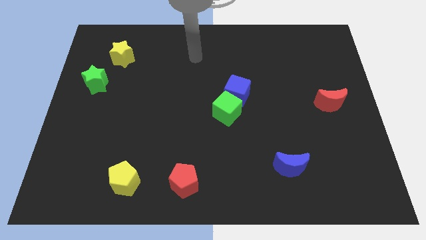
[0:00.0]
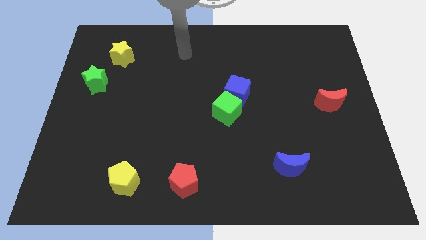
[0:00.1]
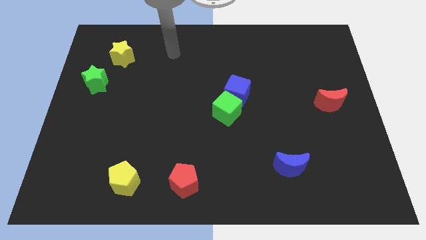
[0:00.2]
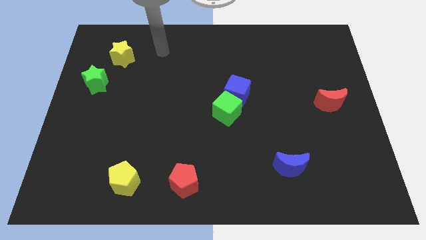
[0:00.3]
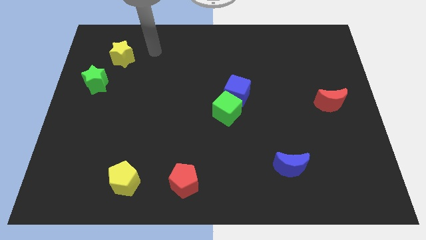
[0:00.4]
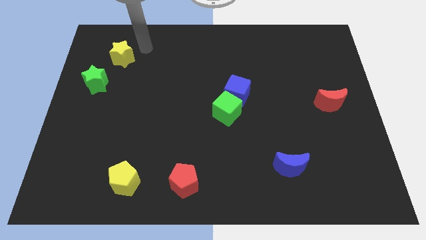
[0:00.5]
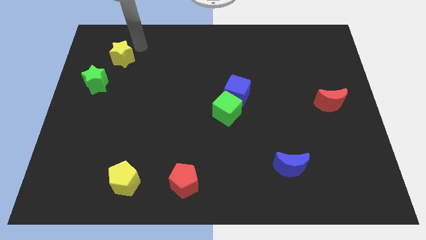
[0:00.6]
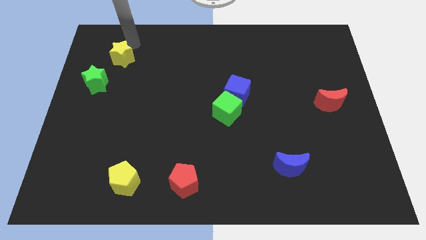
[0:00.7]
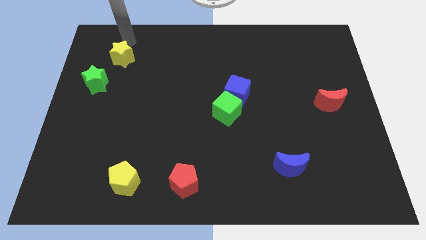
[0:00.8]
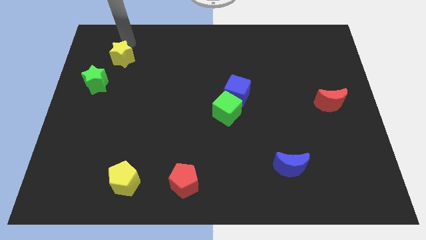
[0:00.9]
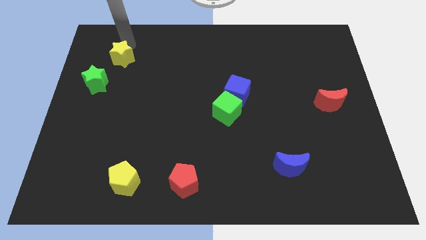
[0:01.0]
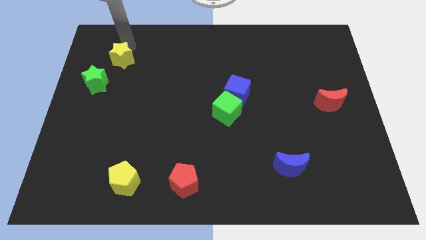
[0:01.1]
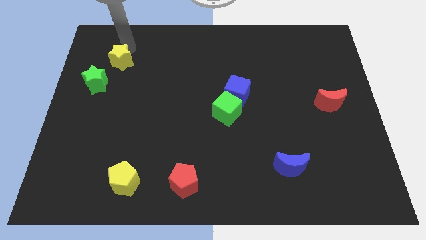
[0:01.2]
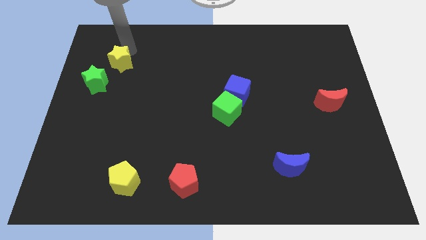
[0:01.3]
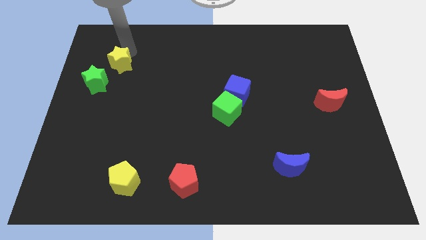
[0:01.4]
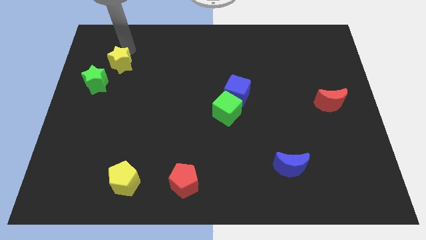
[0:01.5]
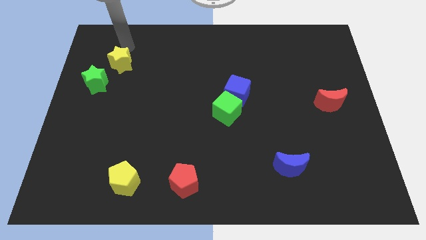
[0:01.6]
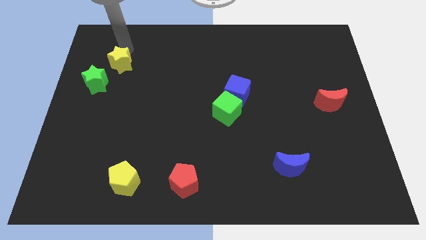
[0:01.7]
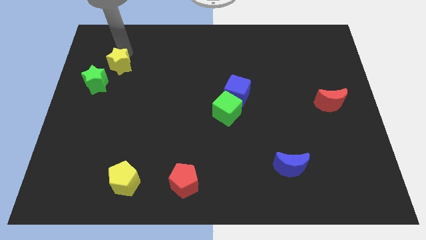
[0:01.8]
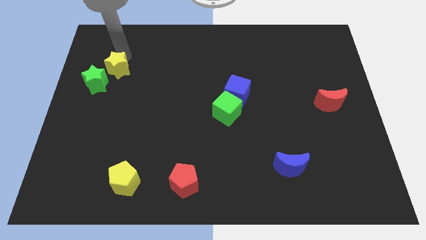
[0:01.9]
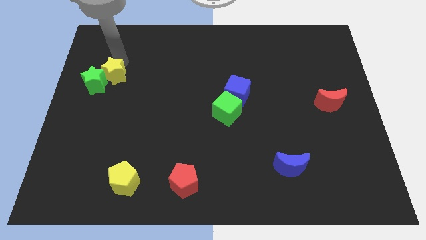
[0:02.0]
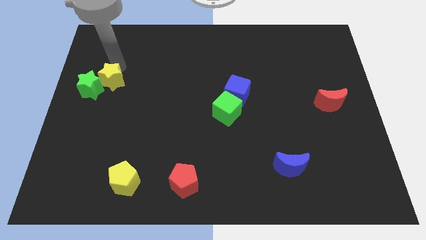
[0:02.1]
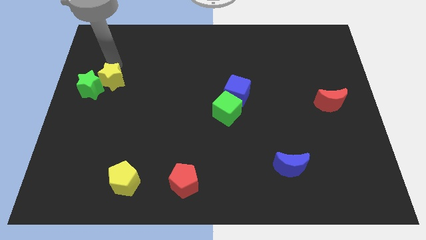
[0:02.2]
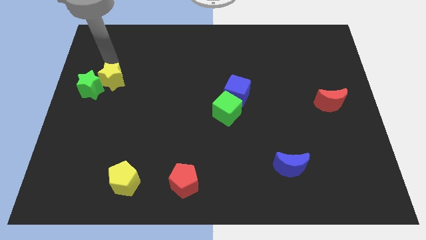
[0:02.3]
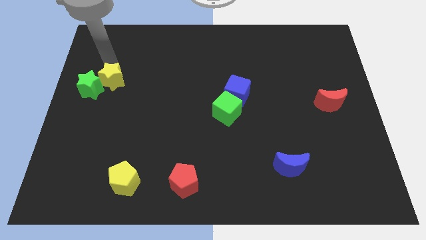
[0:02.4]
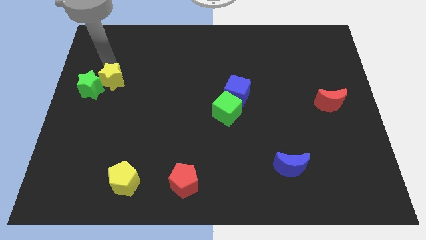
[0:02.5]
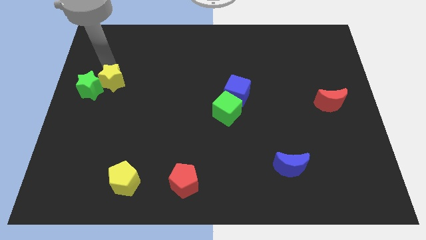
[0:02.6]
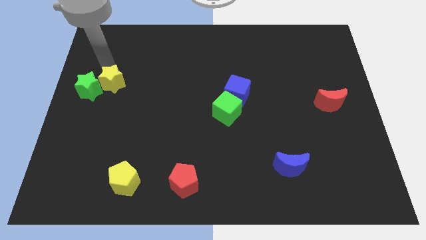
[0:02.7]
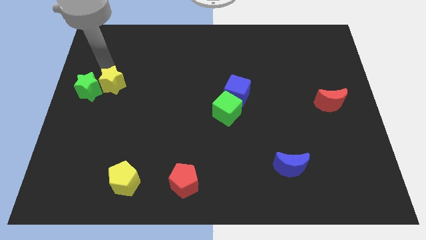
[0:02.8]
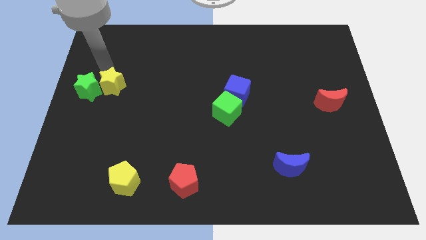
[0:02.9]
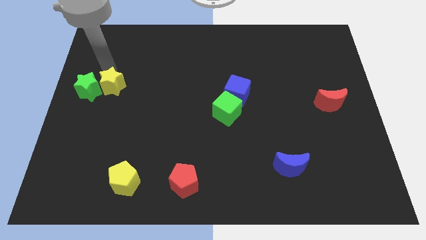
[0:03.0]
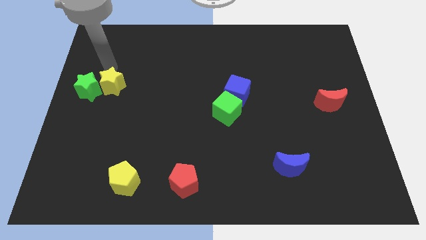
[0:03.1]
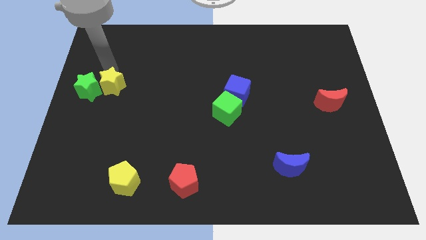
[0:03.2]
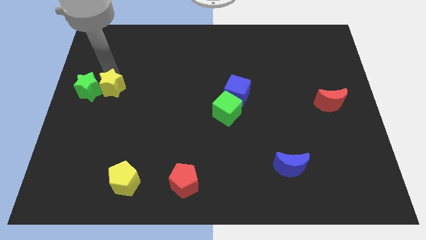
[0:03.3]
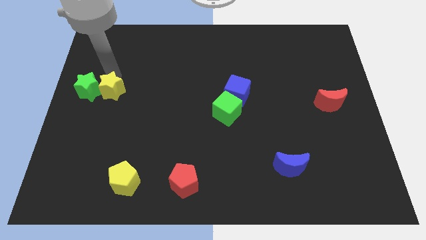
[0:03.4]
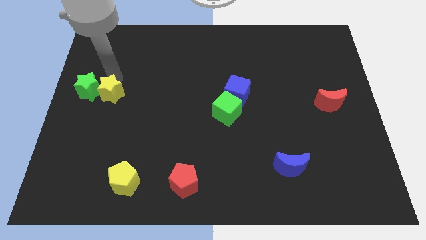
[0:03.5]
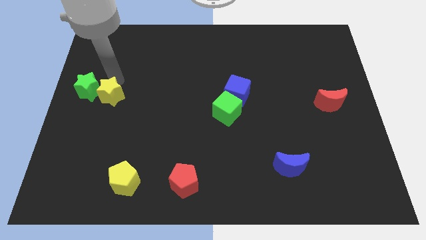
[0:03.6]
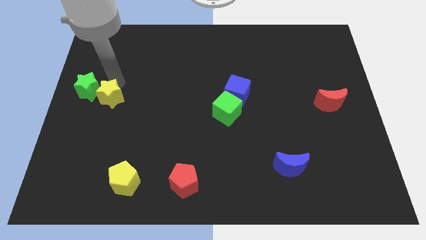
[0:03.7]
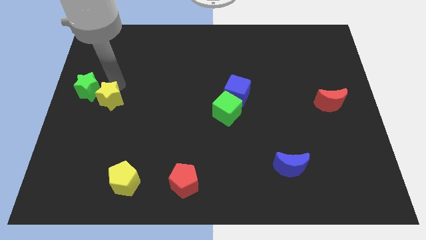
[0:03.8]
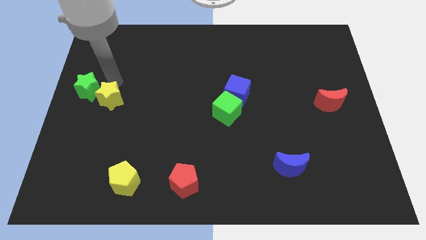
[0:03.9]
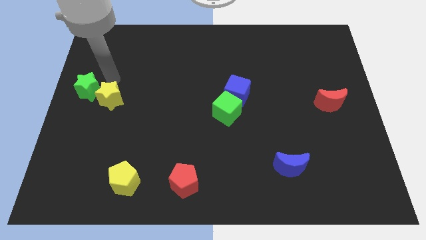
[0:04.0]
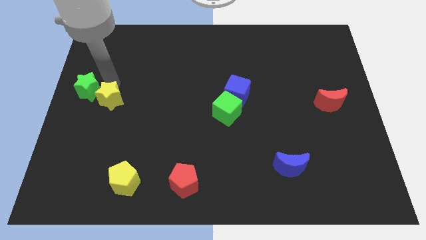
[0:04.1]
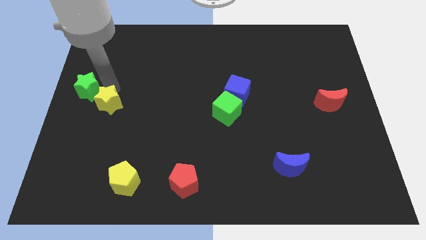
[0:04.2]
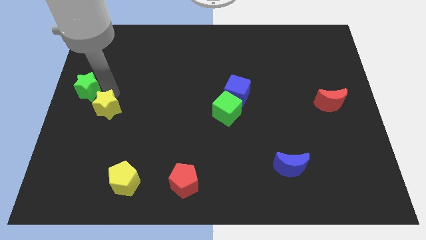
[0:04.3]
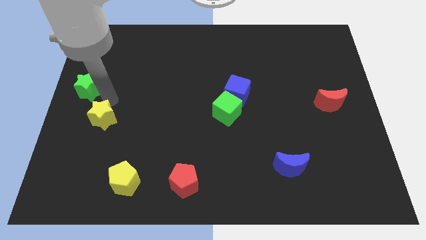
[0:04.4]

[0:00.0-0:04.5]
slide the yellow star downwards

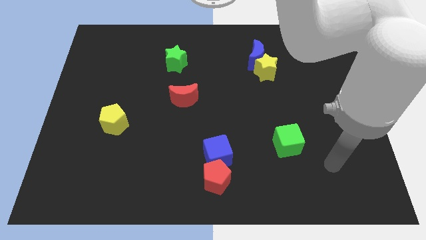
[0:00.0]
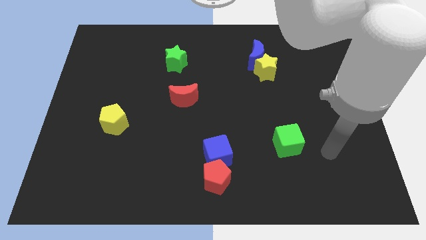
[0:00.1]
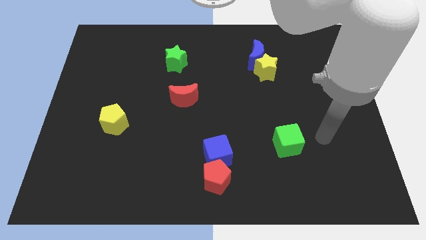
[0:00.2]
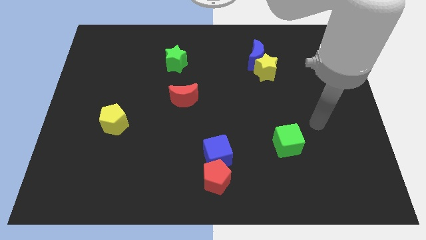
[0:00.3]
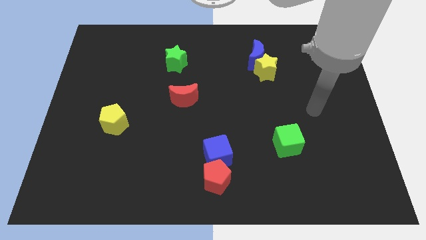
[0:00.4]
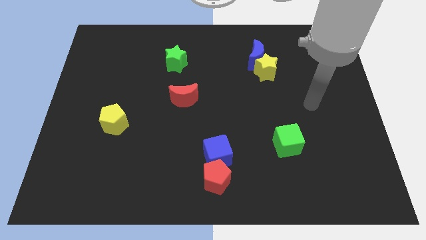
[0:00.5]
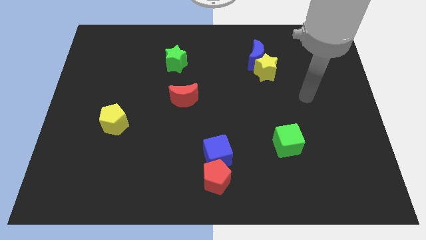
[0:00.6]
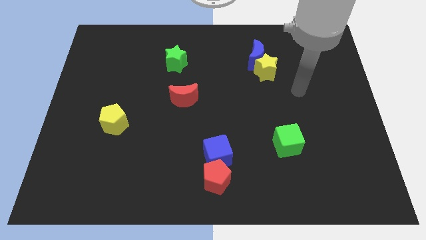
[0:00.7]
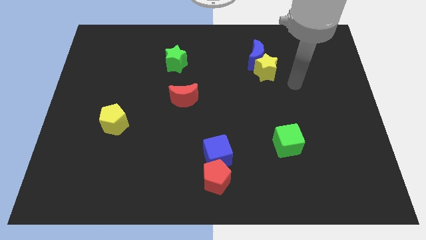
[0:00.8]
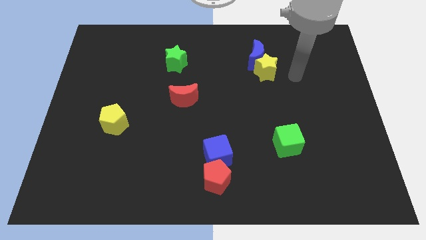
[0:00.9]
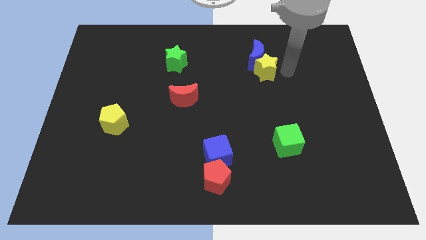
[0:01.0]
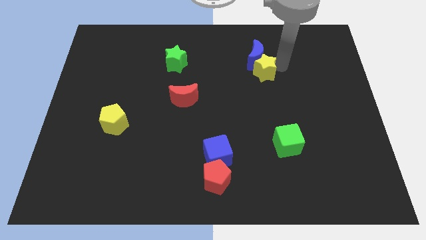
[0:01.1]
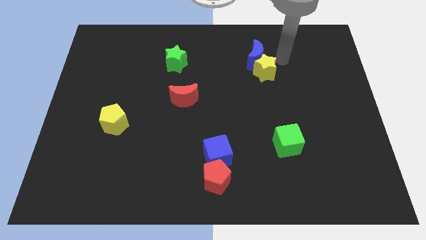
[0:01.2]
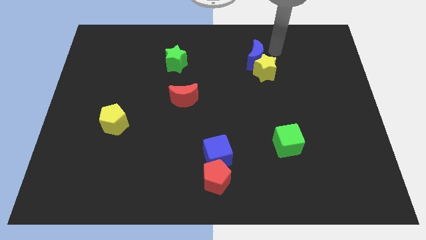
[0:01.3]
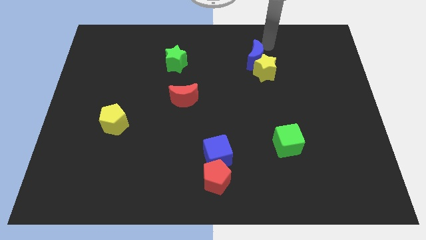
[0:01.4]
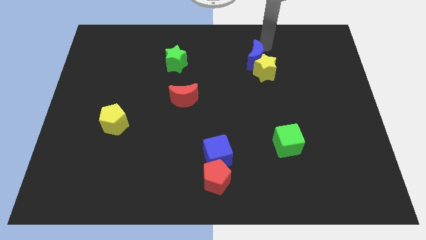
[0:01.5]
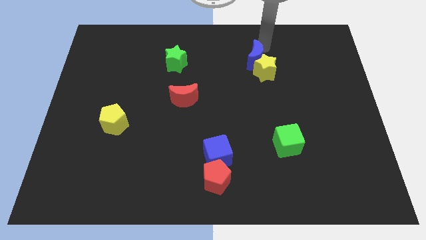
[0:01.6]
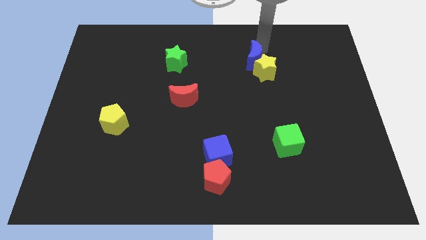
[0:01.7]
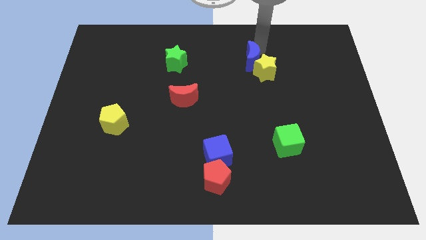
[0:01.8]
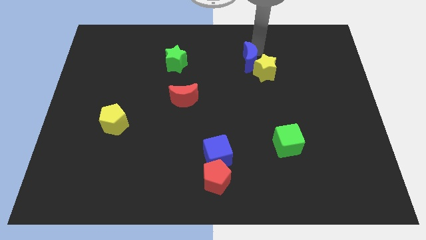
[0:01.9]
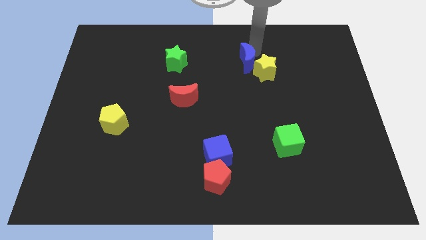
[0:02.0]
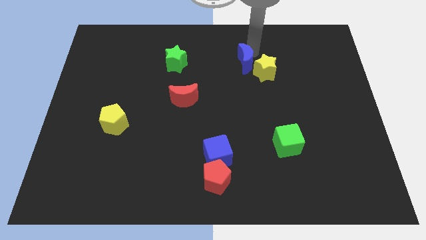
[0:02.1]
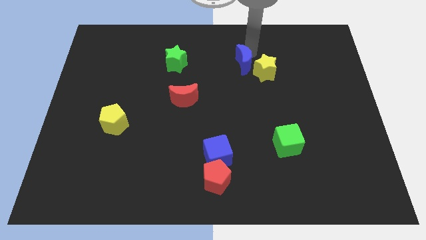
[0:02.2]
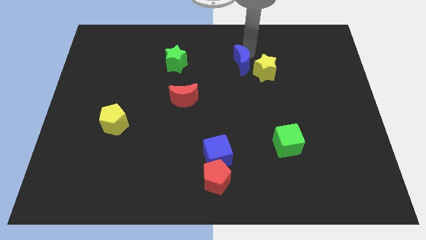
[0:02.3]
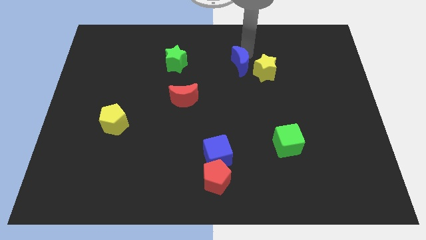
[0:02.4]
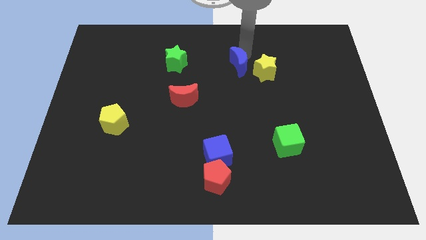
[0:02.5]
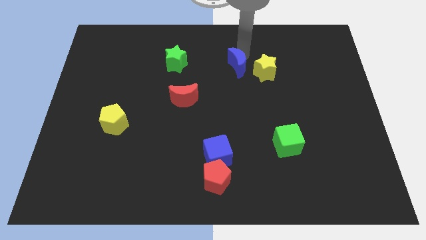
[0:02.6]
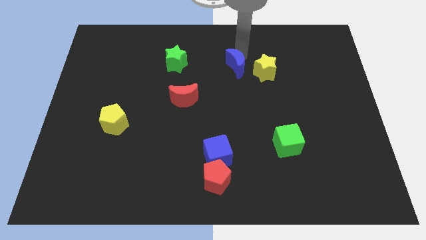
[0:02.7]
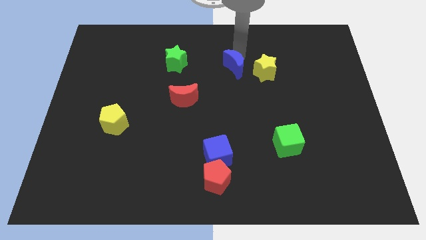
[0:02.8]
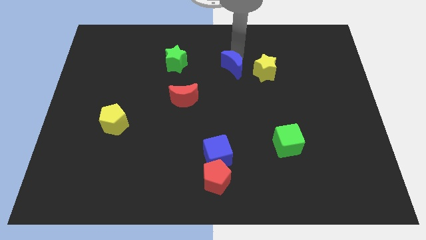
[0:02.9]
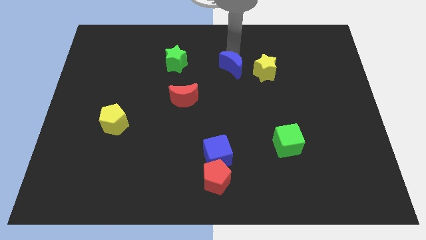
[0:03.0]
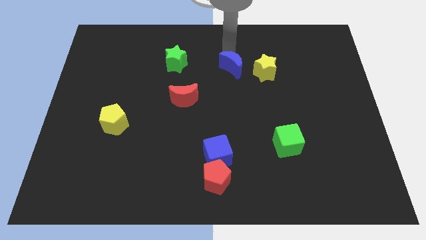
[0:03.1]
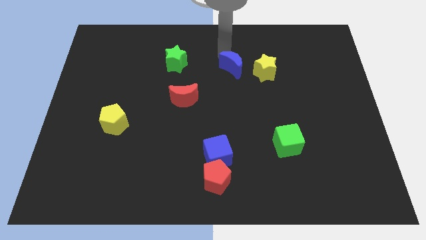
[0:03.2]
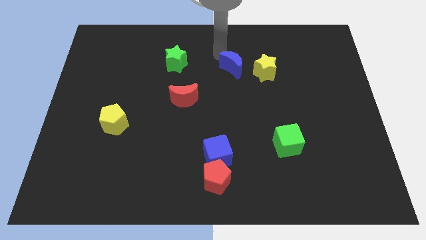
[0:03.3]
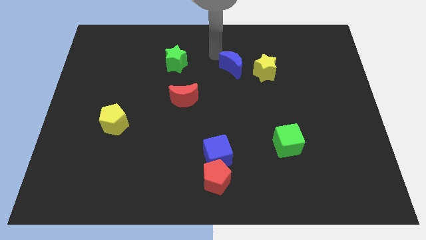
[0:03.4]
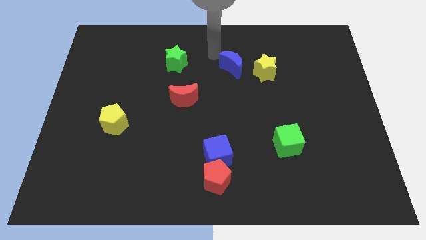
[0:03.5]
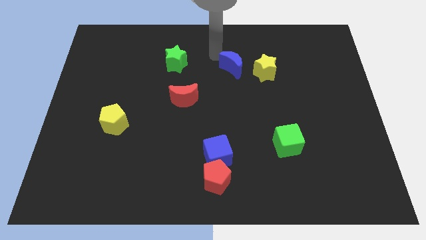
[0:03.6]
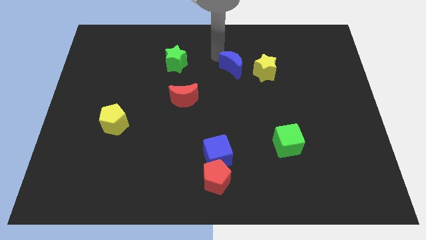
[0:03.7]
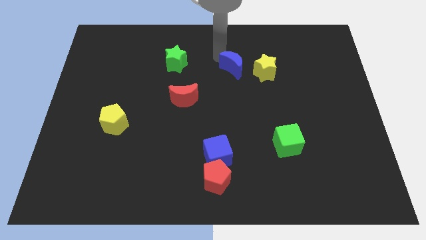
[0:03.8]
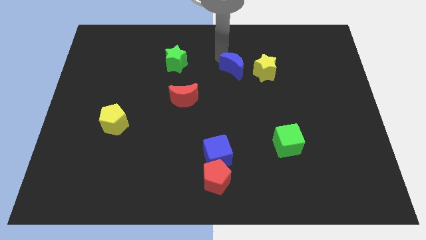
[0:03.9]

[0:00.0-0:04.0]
push the blue moon slightly down and then to the left
